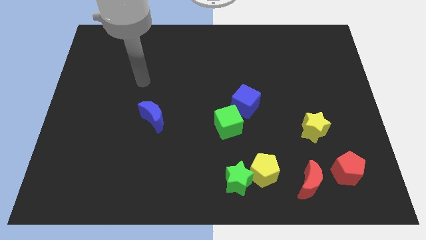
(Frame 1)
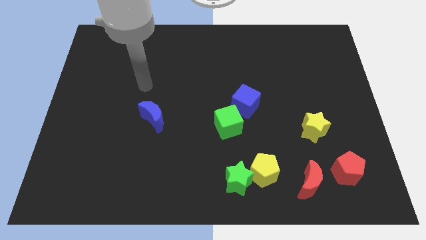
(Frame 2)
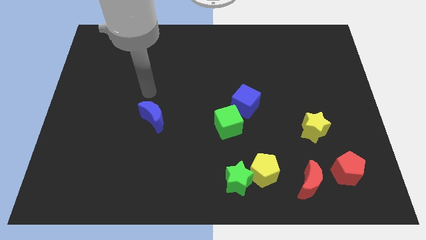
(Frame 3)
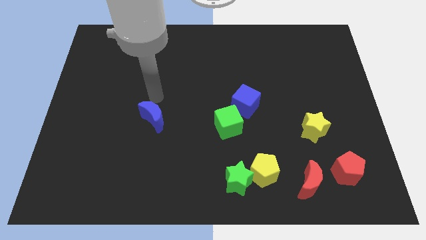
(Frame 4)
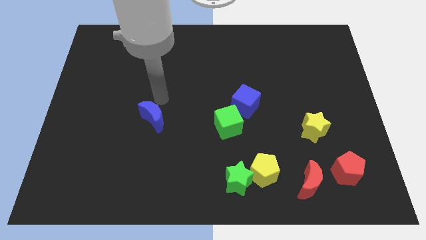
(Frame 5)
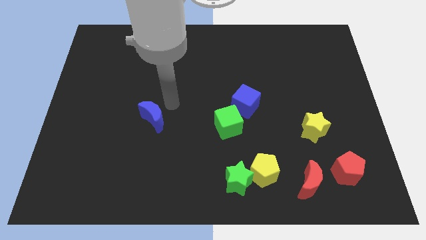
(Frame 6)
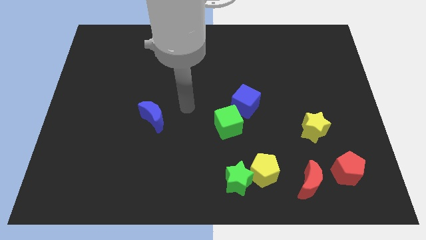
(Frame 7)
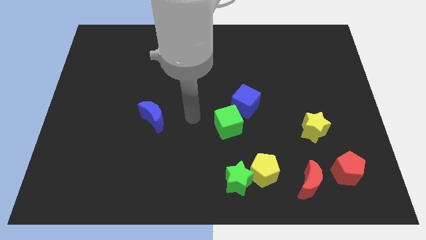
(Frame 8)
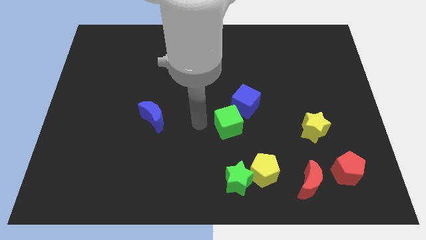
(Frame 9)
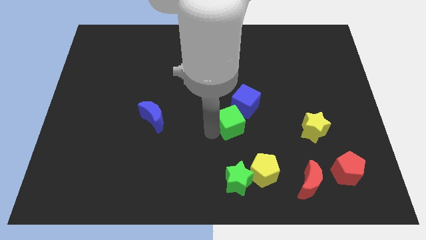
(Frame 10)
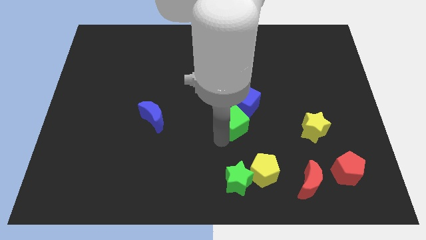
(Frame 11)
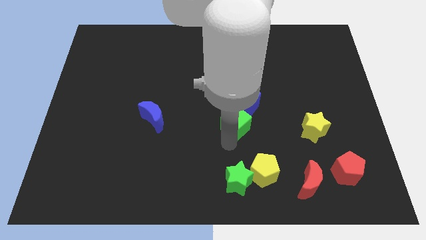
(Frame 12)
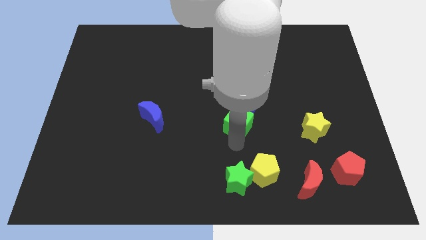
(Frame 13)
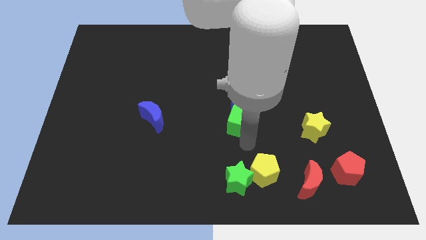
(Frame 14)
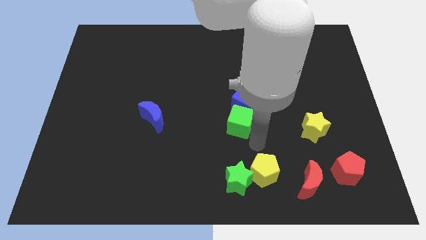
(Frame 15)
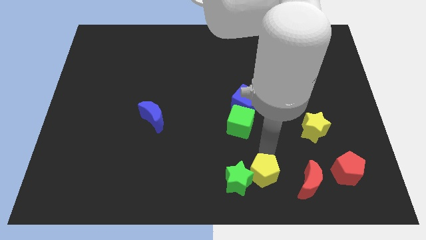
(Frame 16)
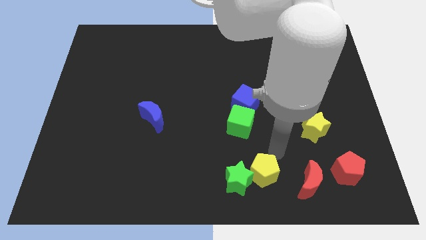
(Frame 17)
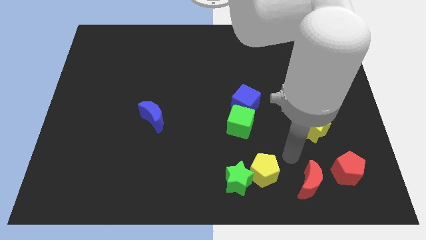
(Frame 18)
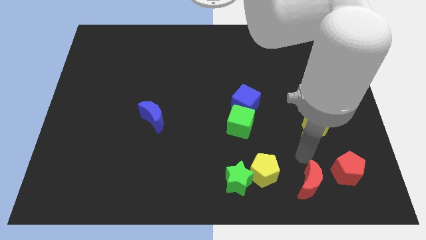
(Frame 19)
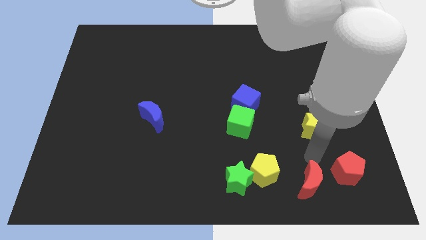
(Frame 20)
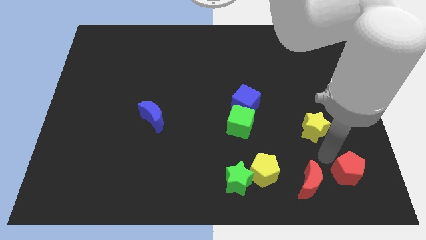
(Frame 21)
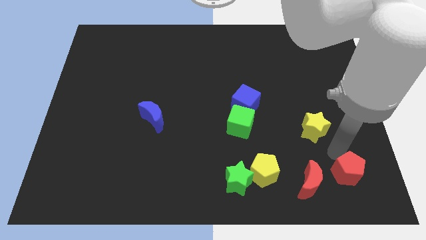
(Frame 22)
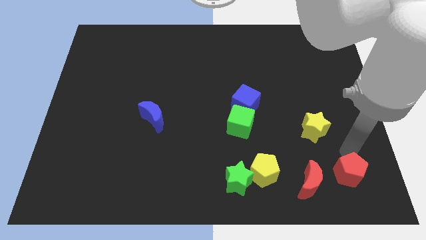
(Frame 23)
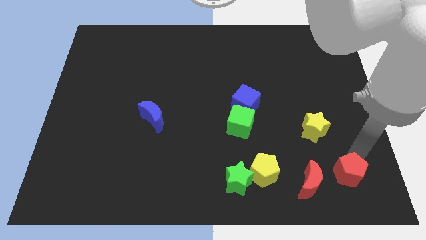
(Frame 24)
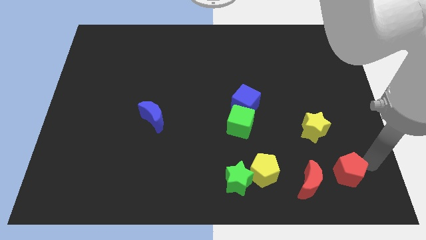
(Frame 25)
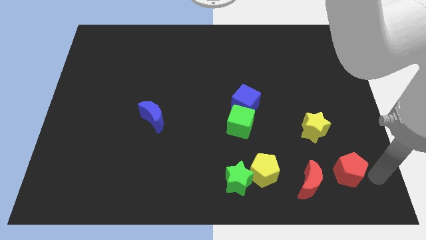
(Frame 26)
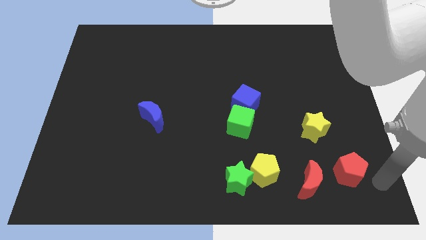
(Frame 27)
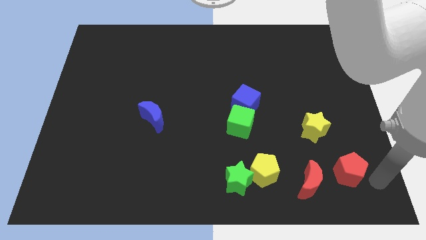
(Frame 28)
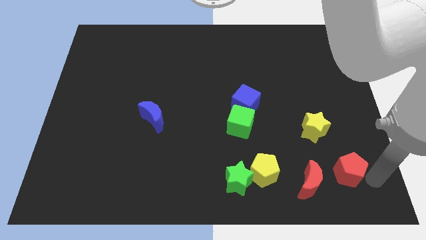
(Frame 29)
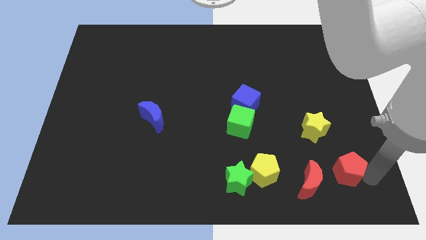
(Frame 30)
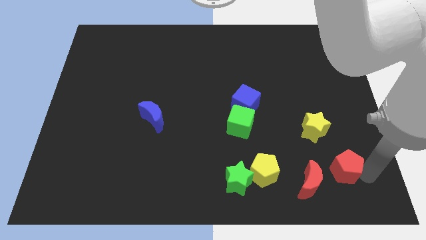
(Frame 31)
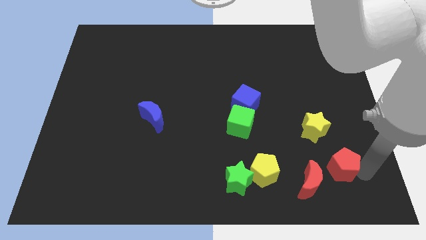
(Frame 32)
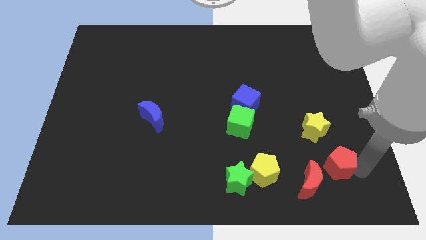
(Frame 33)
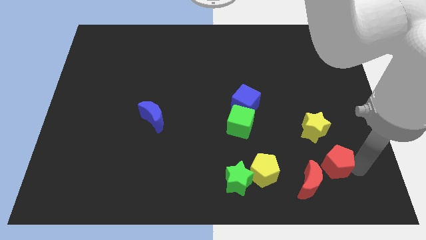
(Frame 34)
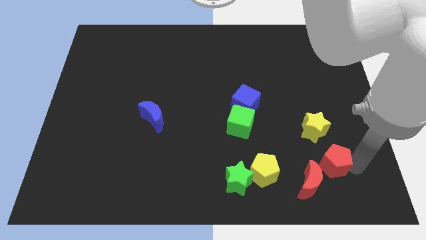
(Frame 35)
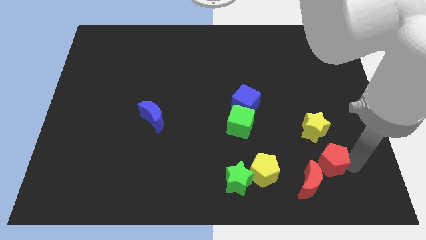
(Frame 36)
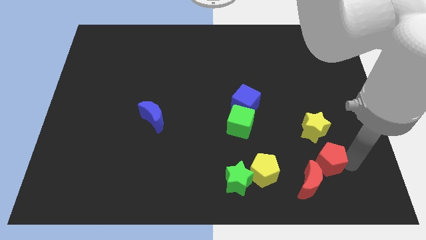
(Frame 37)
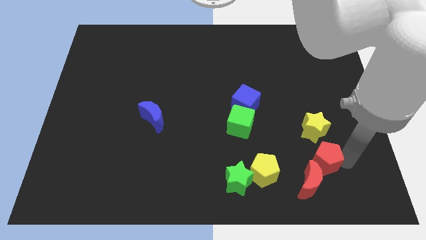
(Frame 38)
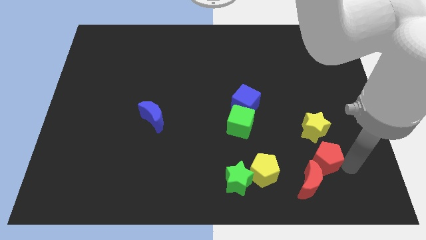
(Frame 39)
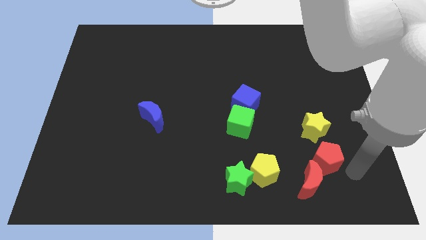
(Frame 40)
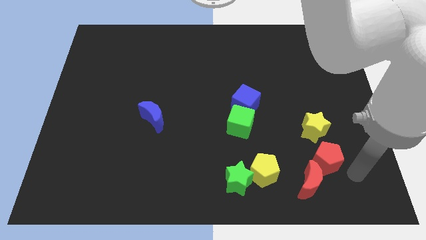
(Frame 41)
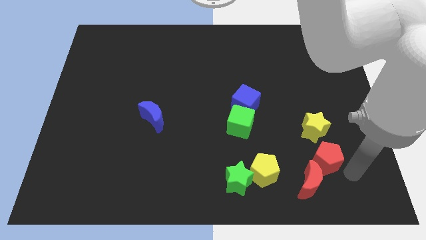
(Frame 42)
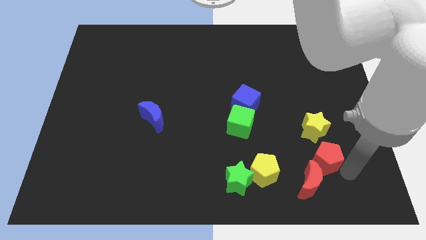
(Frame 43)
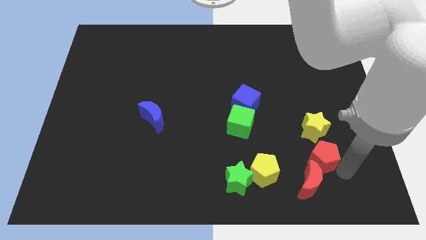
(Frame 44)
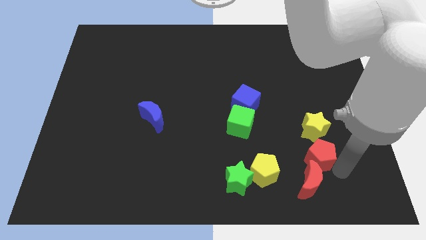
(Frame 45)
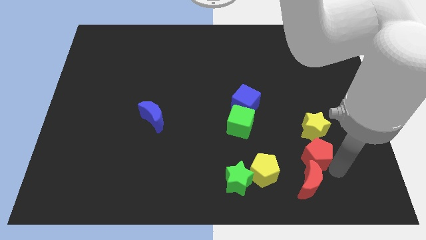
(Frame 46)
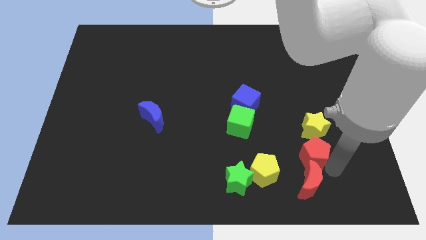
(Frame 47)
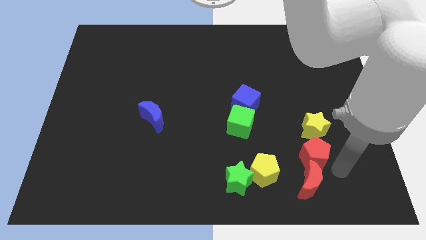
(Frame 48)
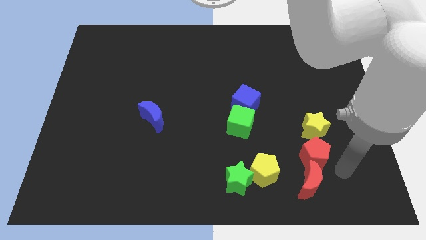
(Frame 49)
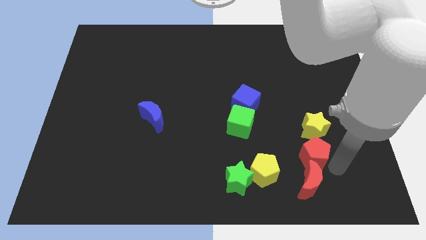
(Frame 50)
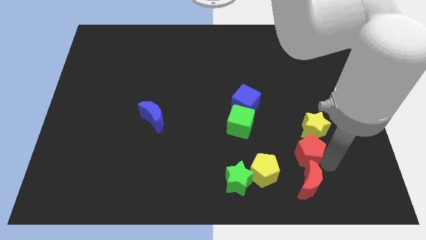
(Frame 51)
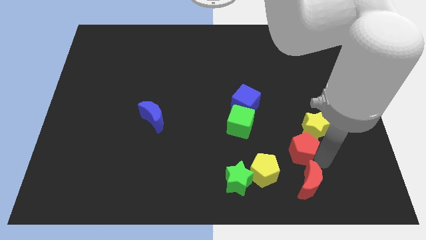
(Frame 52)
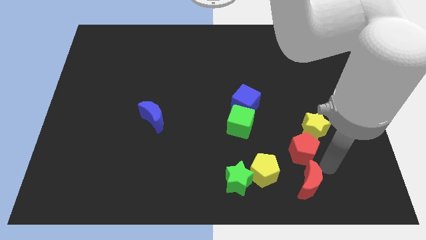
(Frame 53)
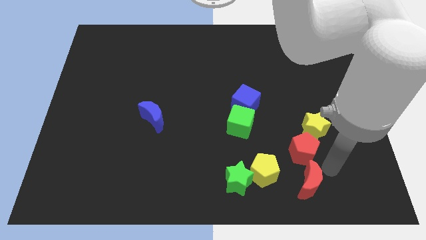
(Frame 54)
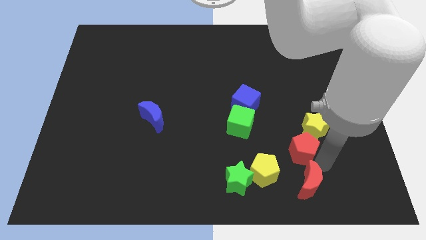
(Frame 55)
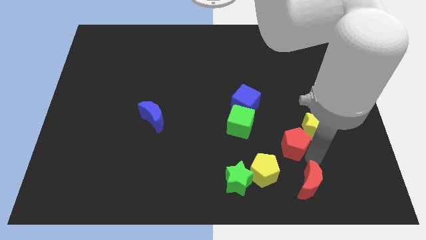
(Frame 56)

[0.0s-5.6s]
move the red pentagon to the left side of the yellow star

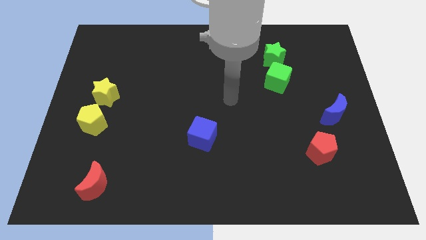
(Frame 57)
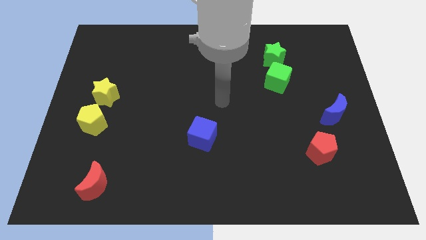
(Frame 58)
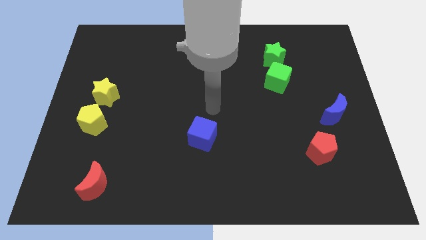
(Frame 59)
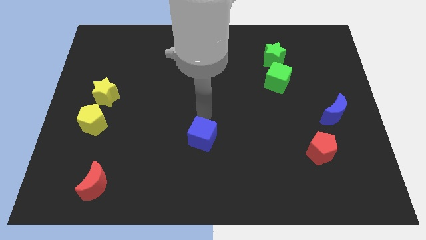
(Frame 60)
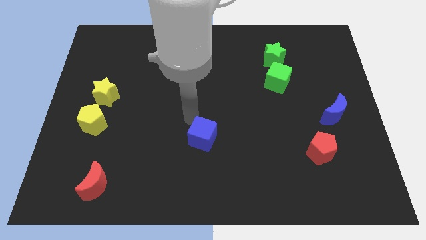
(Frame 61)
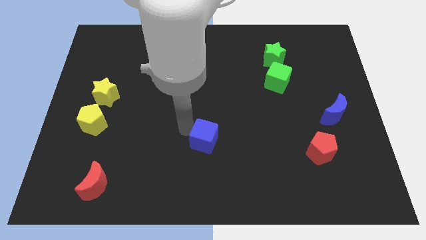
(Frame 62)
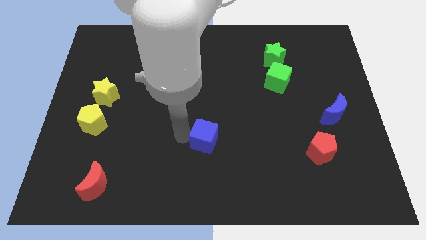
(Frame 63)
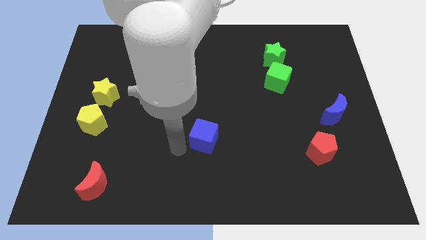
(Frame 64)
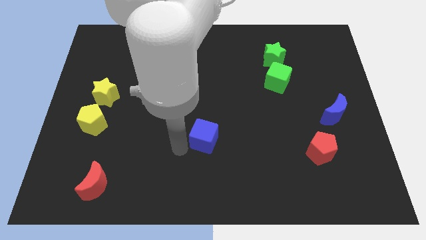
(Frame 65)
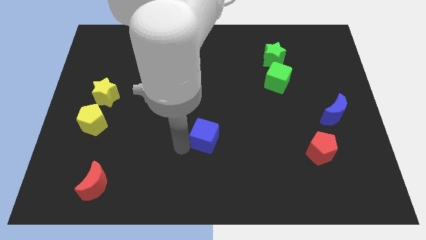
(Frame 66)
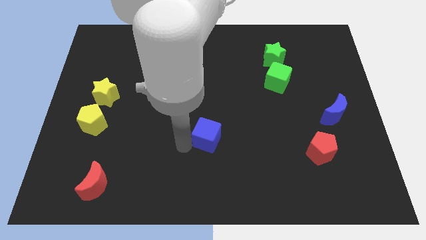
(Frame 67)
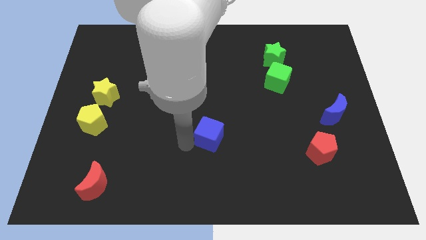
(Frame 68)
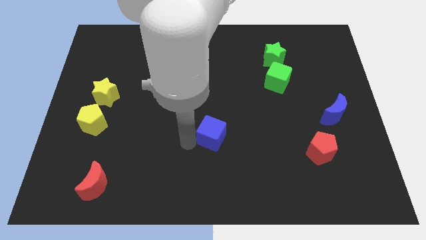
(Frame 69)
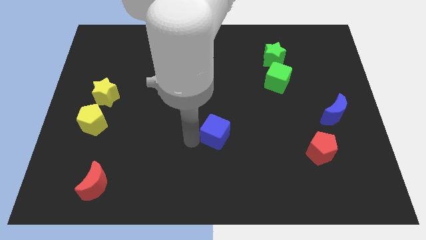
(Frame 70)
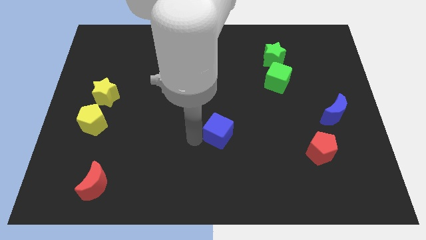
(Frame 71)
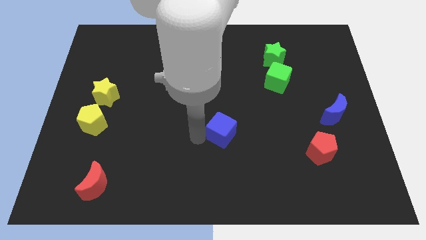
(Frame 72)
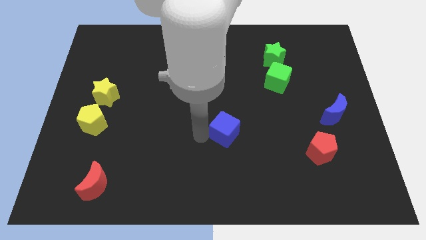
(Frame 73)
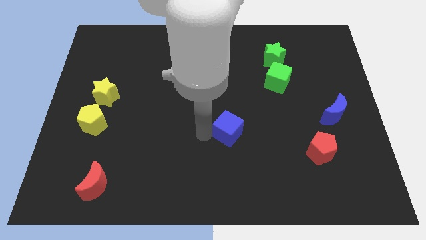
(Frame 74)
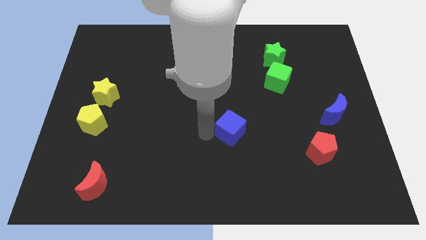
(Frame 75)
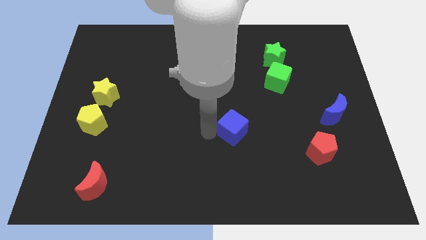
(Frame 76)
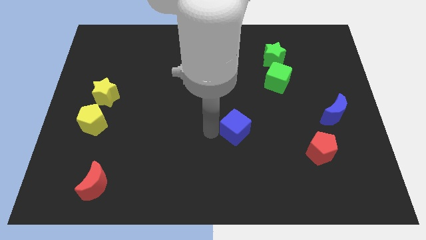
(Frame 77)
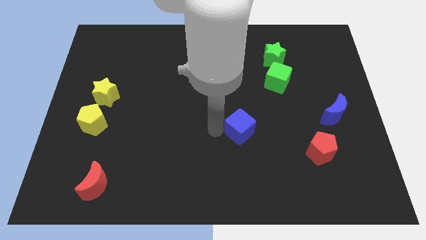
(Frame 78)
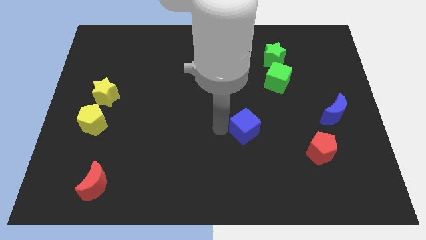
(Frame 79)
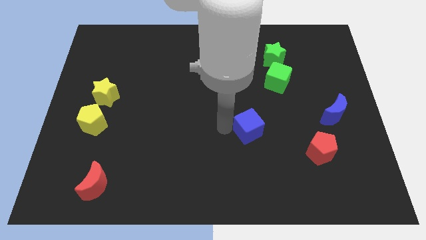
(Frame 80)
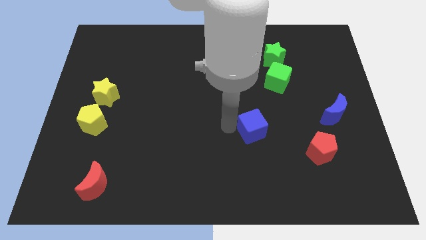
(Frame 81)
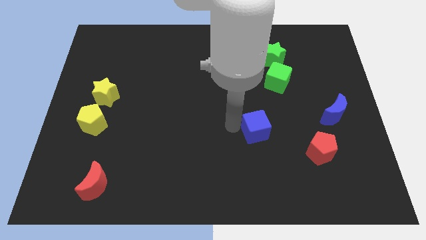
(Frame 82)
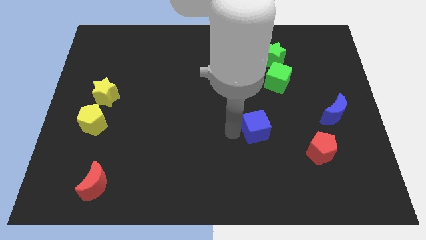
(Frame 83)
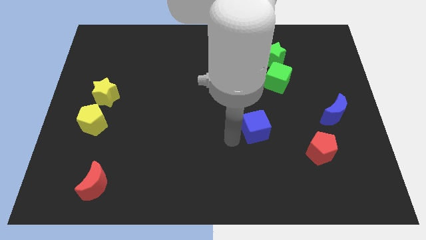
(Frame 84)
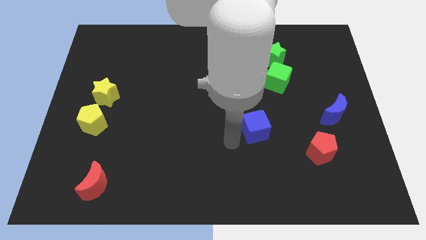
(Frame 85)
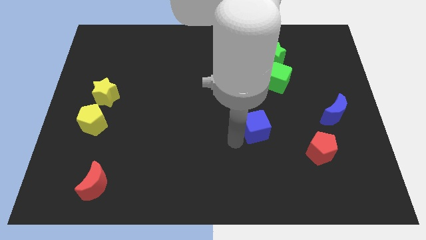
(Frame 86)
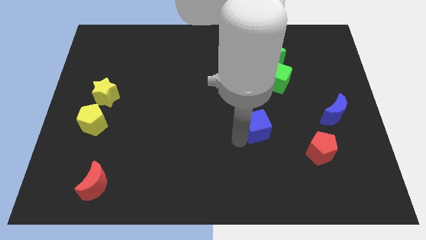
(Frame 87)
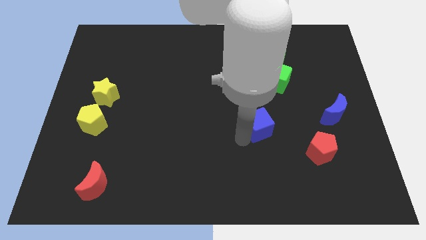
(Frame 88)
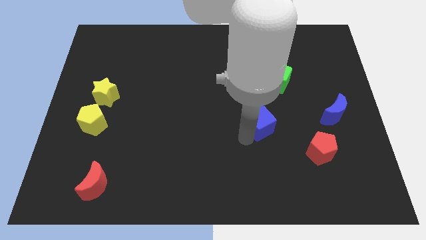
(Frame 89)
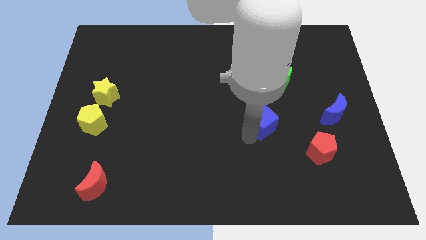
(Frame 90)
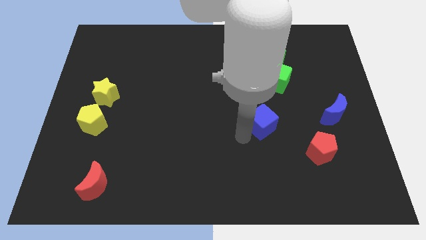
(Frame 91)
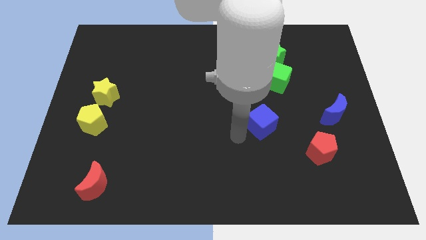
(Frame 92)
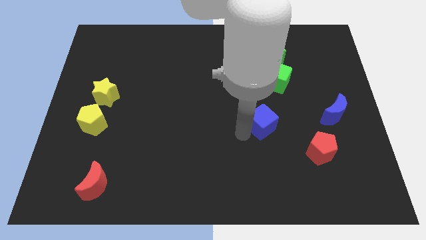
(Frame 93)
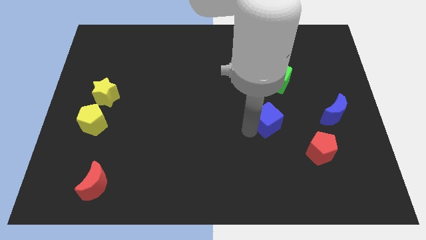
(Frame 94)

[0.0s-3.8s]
push the blue cube to the bottom of the green cube
